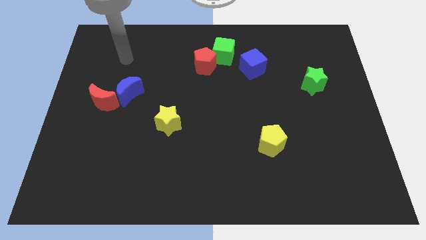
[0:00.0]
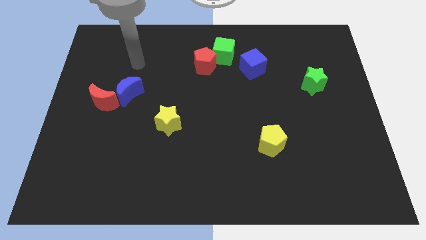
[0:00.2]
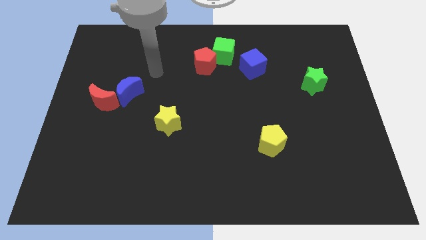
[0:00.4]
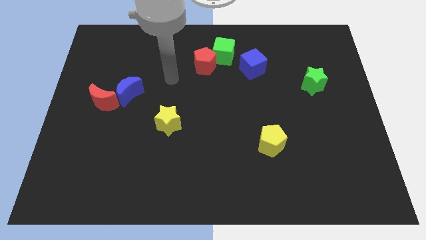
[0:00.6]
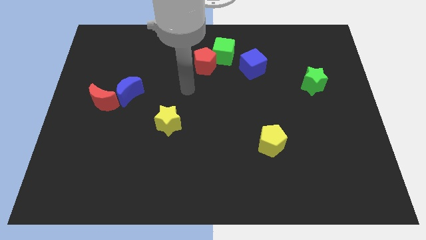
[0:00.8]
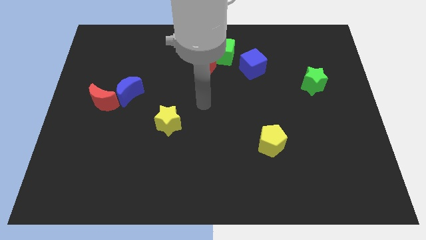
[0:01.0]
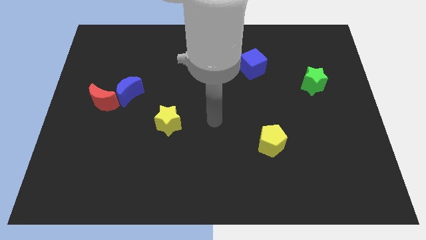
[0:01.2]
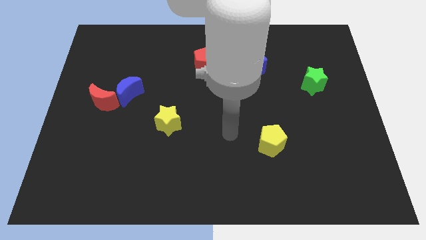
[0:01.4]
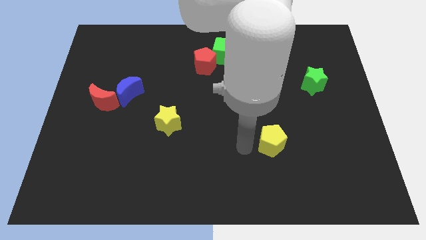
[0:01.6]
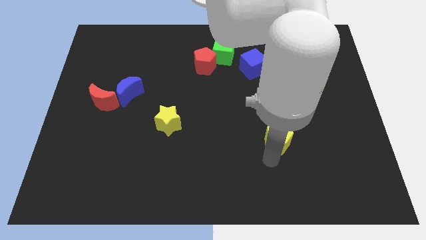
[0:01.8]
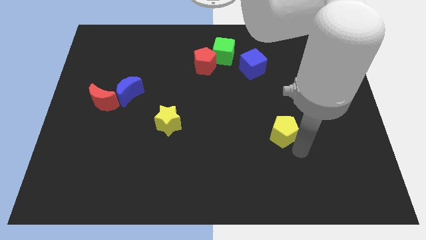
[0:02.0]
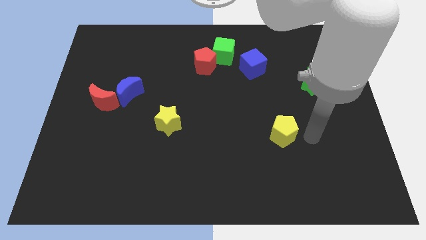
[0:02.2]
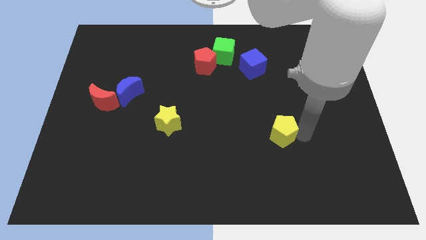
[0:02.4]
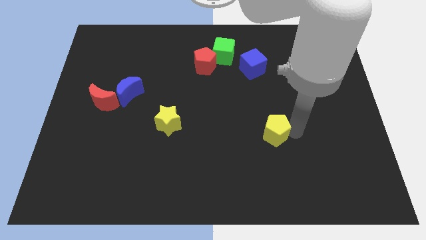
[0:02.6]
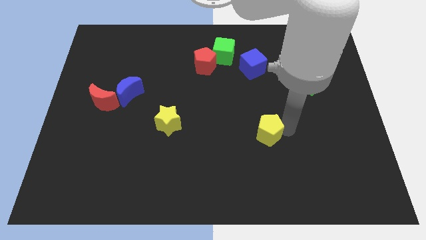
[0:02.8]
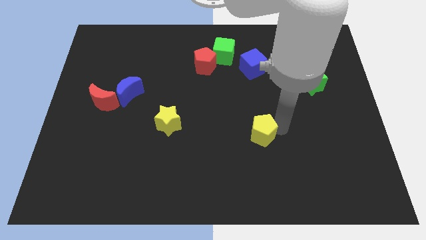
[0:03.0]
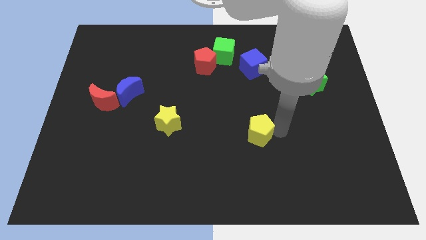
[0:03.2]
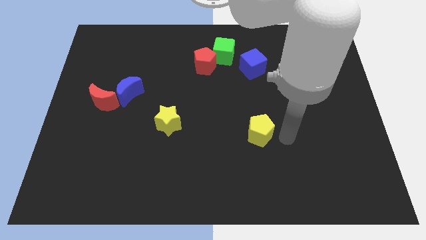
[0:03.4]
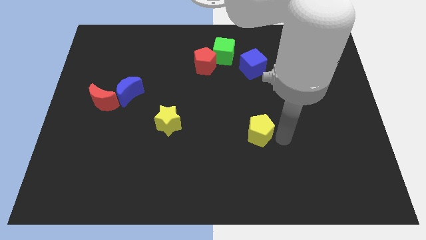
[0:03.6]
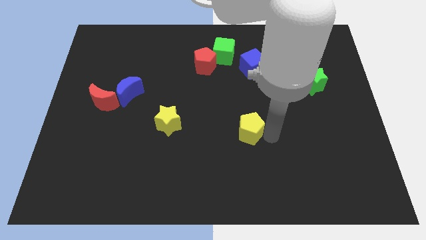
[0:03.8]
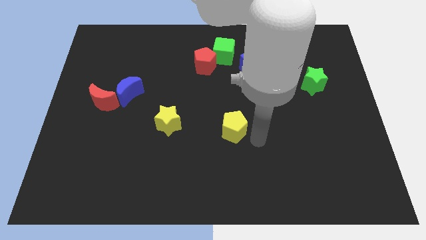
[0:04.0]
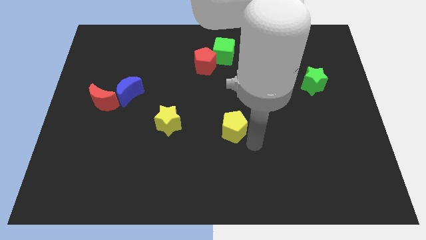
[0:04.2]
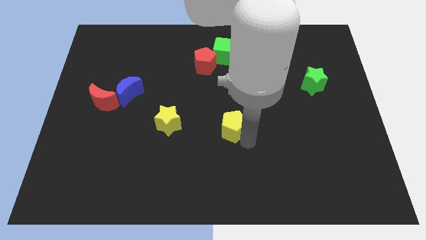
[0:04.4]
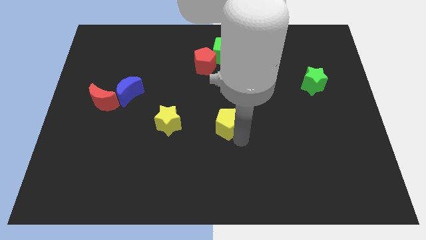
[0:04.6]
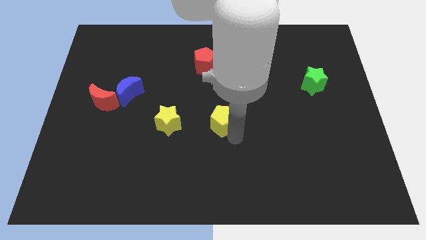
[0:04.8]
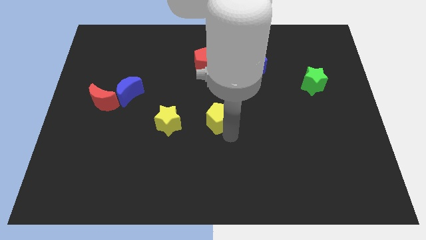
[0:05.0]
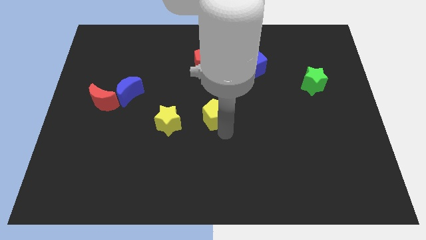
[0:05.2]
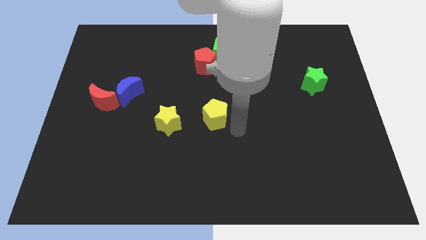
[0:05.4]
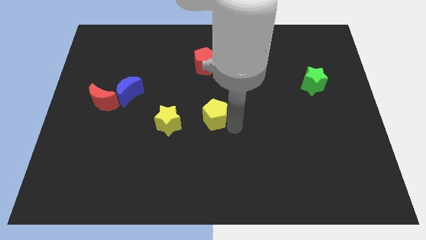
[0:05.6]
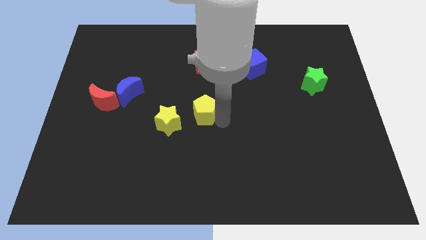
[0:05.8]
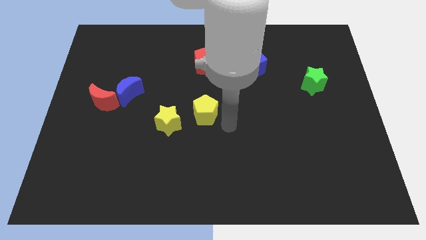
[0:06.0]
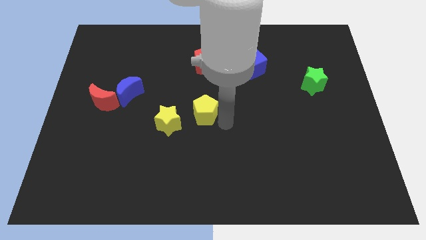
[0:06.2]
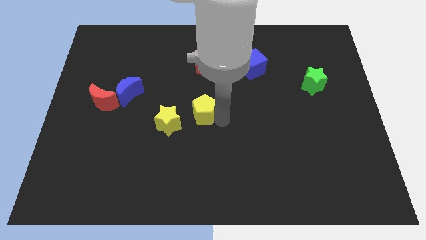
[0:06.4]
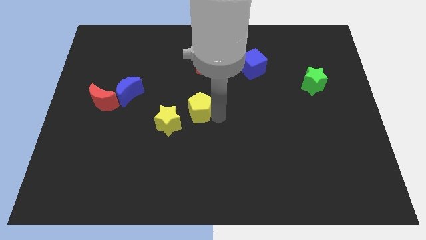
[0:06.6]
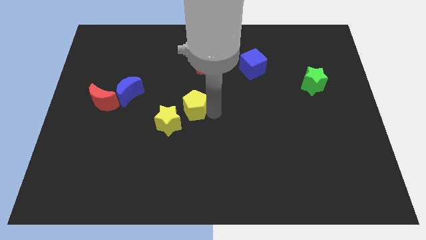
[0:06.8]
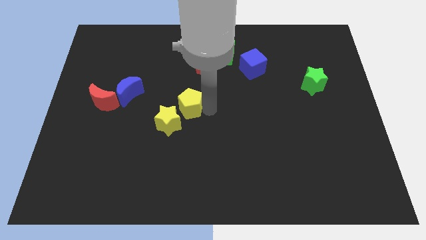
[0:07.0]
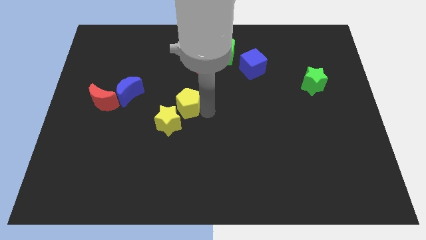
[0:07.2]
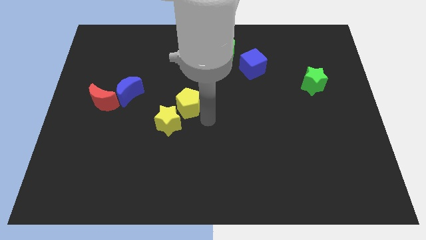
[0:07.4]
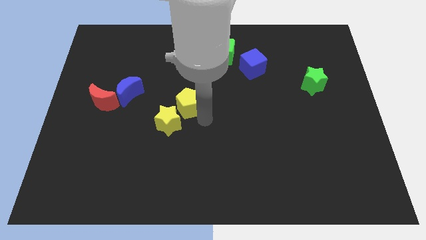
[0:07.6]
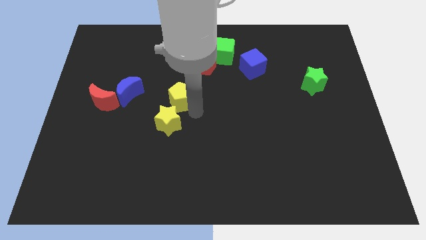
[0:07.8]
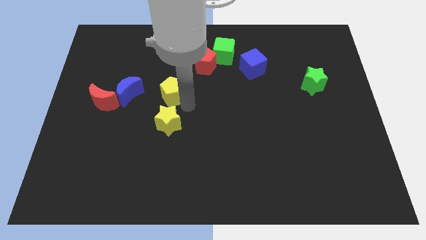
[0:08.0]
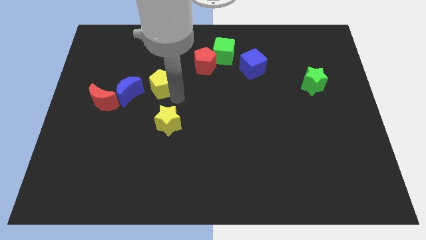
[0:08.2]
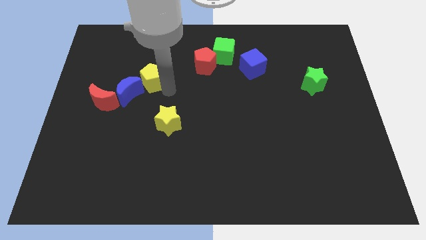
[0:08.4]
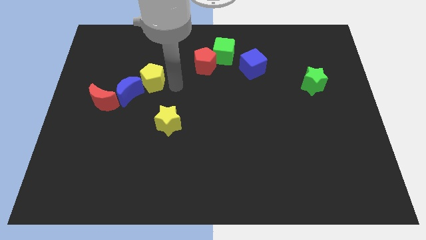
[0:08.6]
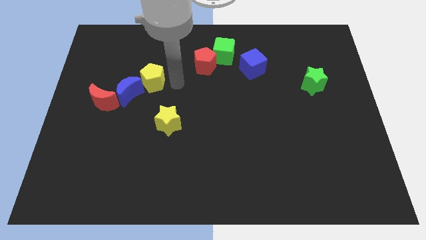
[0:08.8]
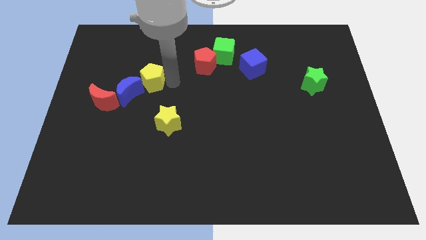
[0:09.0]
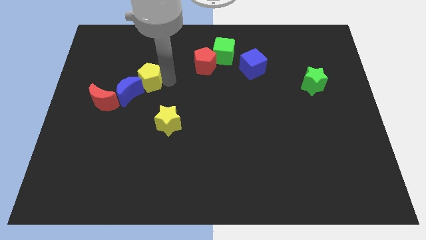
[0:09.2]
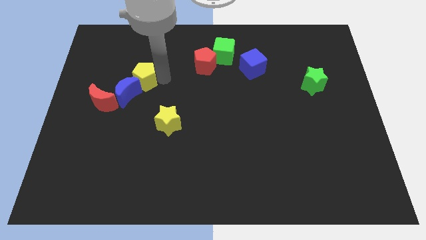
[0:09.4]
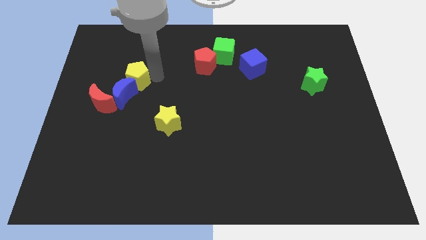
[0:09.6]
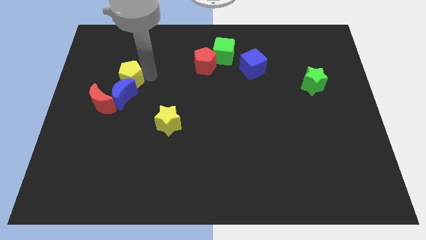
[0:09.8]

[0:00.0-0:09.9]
put the yellow pentagon to the top left of the blue moon

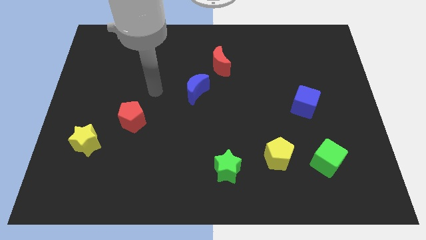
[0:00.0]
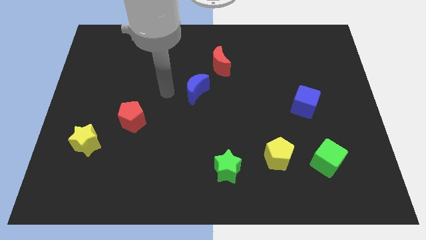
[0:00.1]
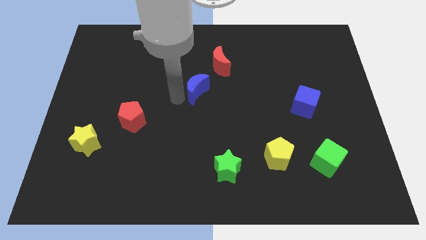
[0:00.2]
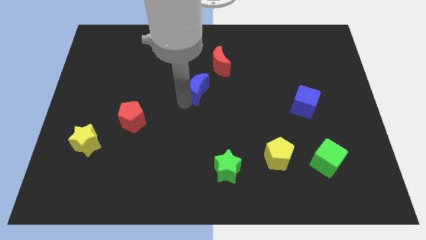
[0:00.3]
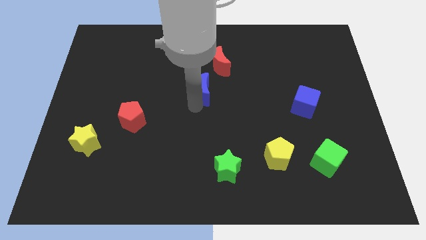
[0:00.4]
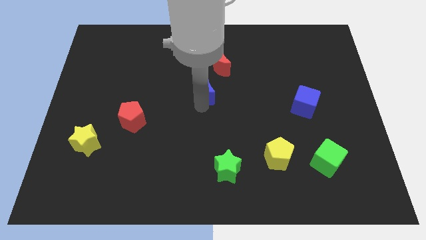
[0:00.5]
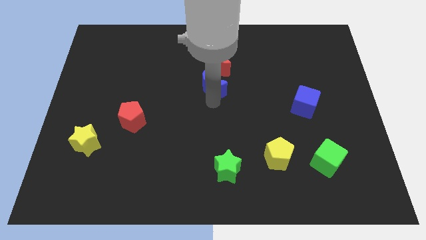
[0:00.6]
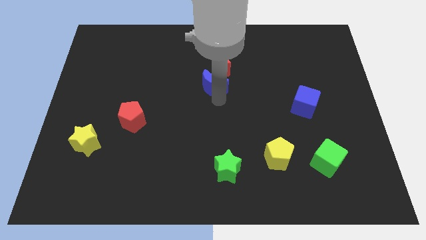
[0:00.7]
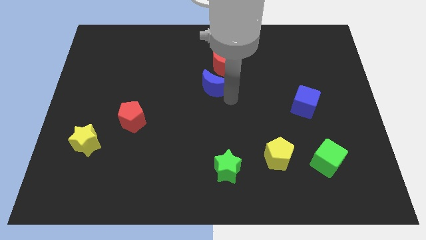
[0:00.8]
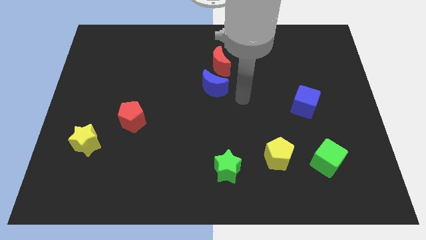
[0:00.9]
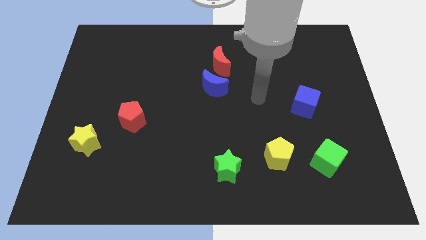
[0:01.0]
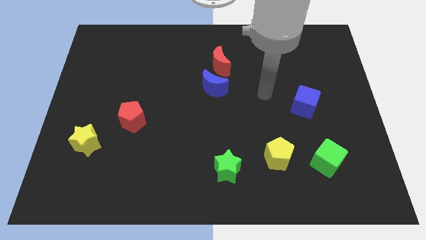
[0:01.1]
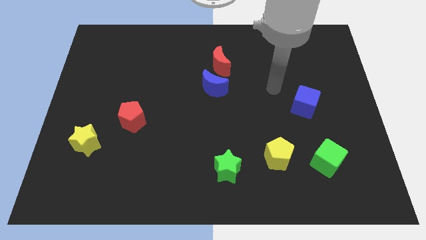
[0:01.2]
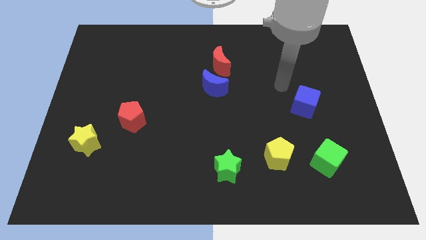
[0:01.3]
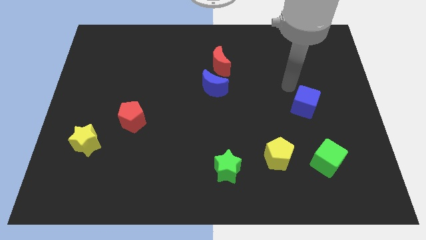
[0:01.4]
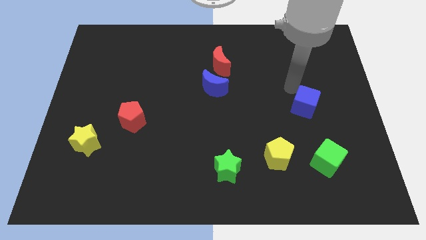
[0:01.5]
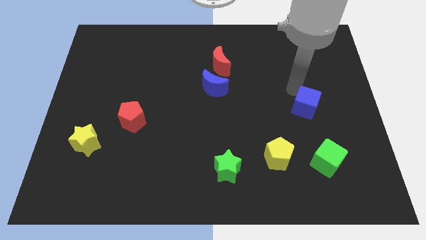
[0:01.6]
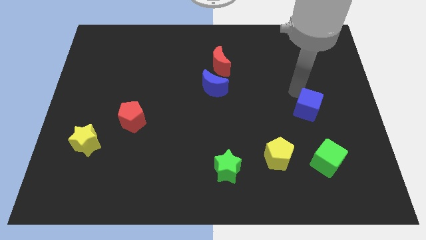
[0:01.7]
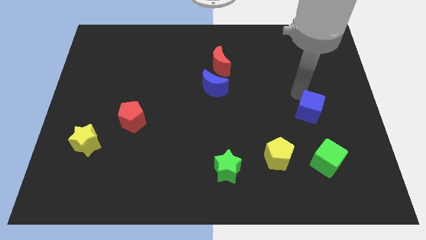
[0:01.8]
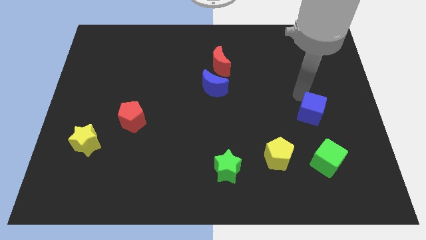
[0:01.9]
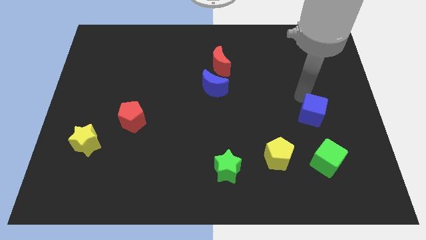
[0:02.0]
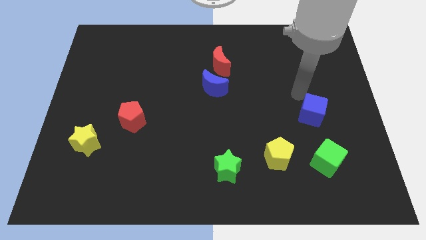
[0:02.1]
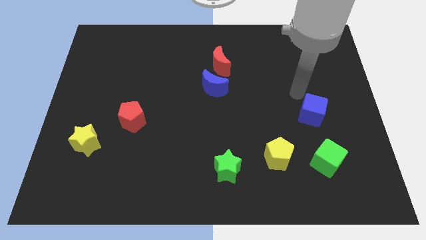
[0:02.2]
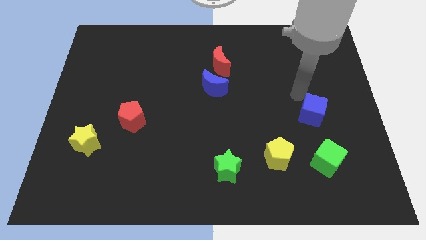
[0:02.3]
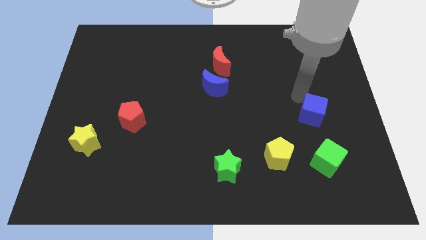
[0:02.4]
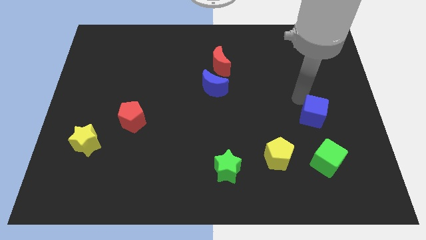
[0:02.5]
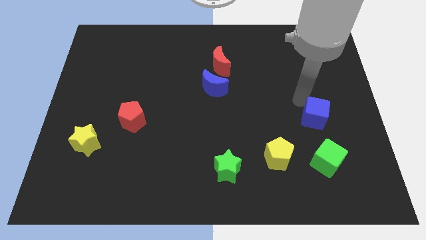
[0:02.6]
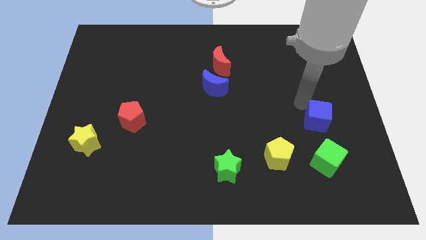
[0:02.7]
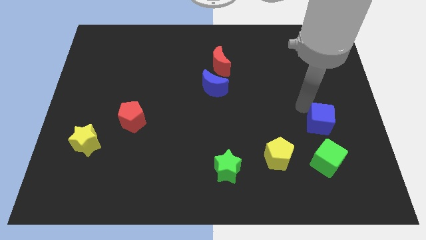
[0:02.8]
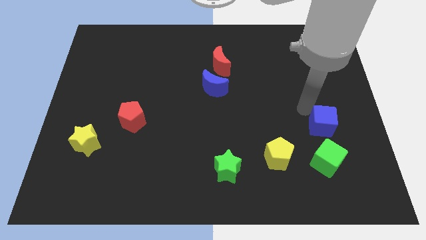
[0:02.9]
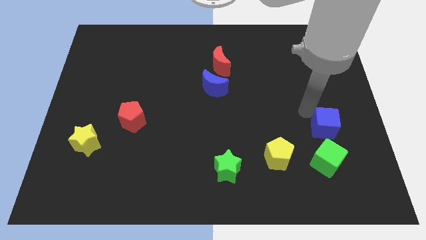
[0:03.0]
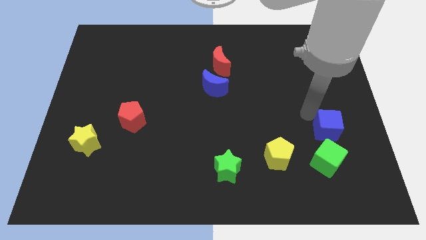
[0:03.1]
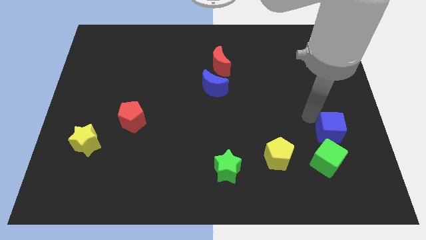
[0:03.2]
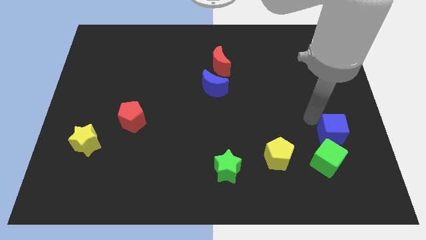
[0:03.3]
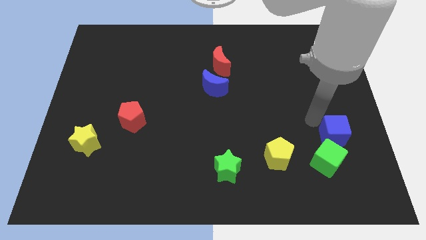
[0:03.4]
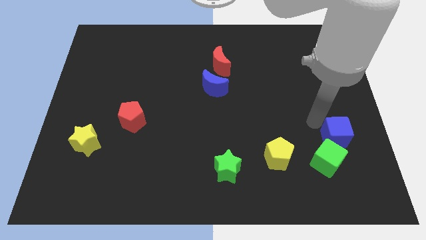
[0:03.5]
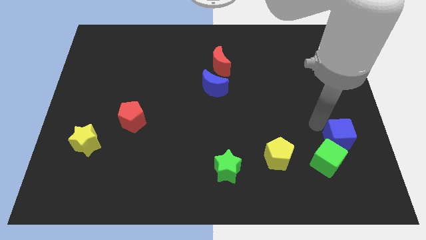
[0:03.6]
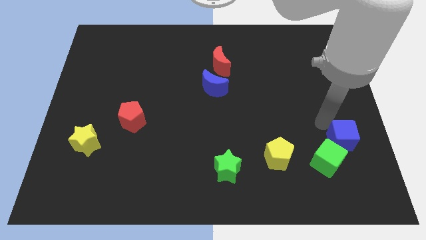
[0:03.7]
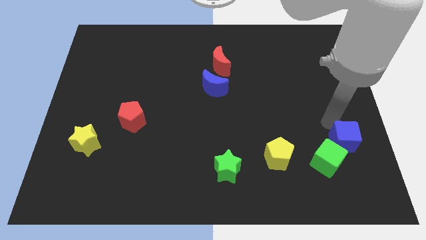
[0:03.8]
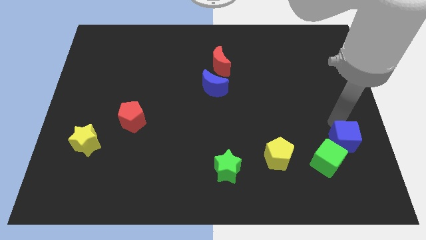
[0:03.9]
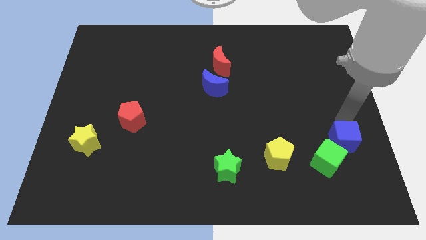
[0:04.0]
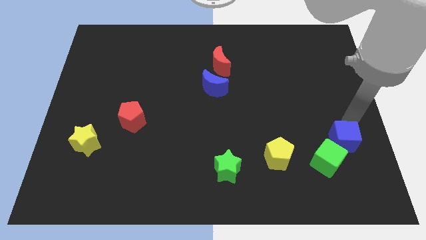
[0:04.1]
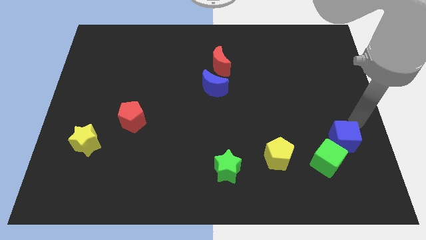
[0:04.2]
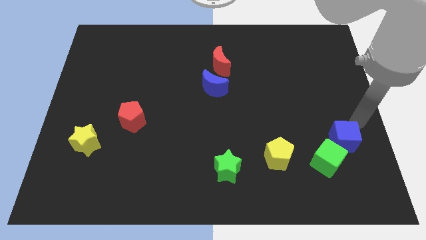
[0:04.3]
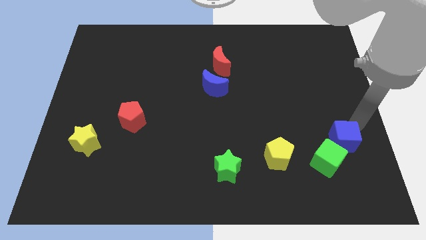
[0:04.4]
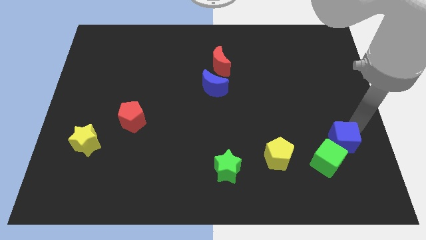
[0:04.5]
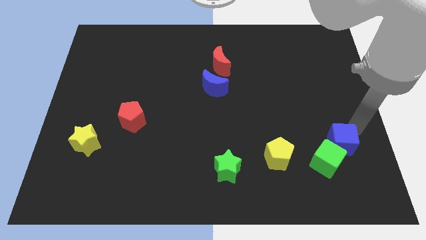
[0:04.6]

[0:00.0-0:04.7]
slide the blue cube just right of the yellow pentagon
